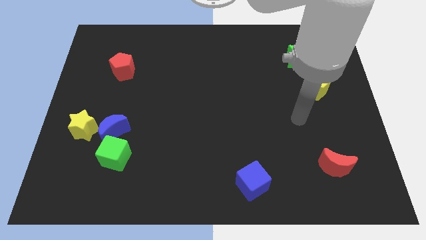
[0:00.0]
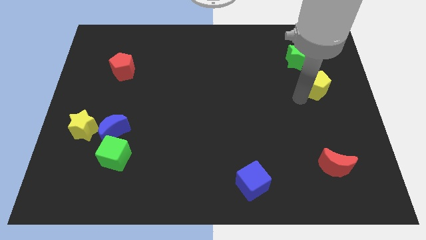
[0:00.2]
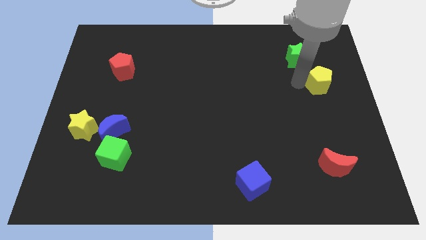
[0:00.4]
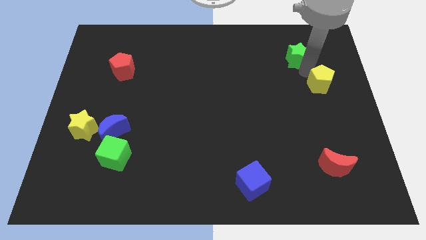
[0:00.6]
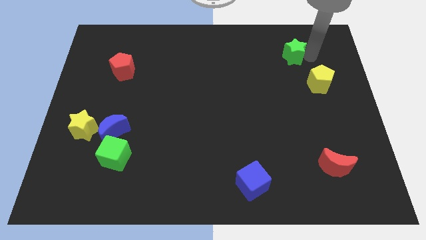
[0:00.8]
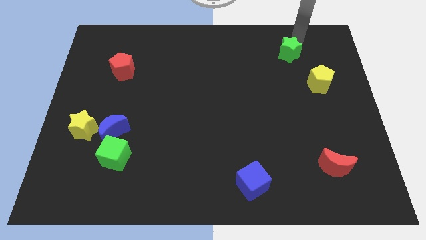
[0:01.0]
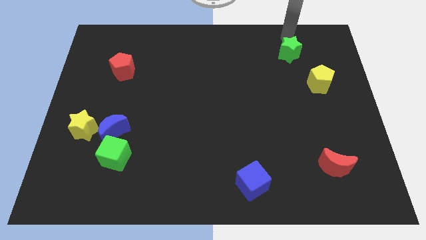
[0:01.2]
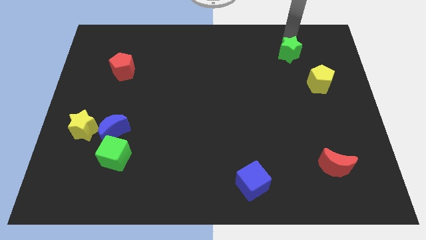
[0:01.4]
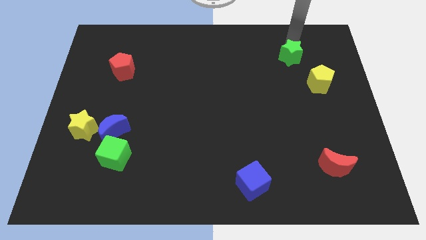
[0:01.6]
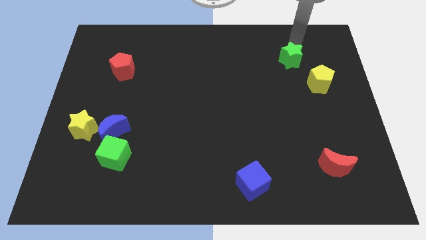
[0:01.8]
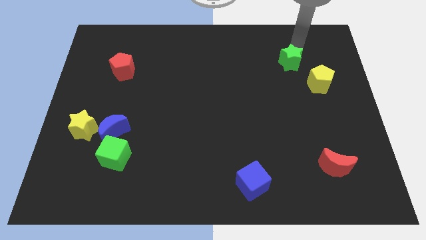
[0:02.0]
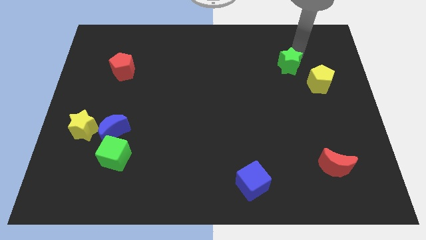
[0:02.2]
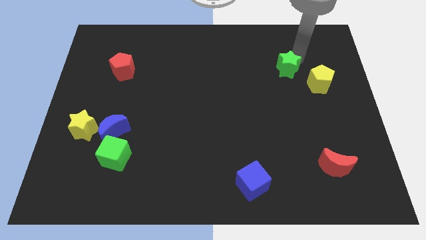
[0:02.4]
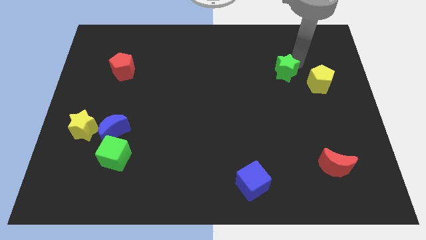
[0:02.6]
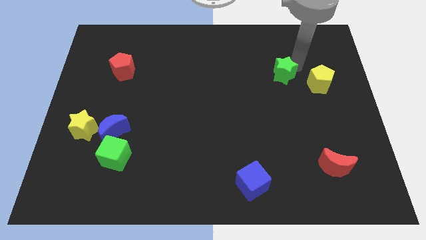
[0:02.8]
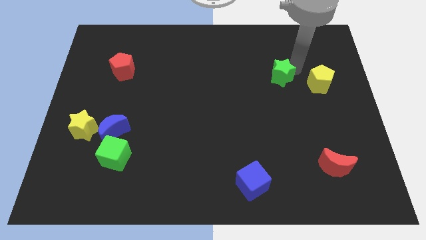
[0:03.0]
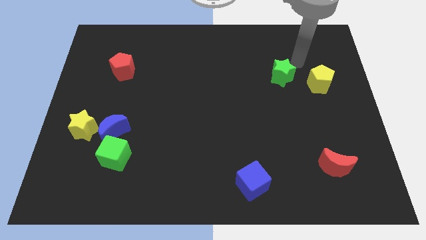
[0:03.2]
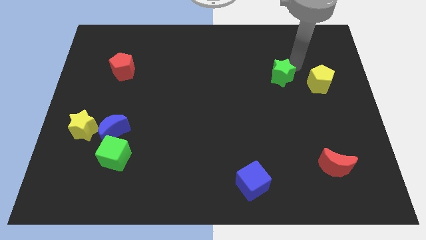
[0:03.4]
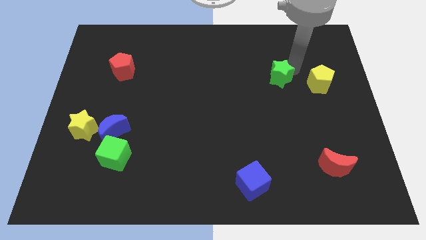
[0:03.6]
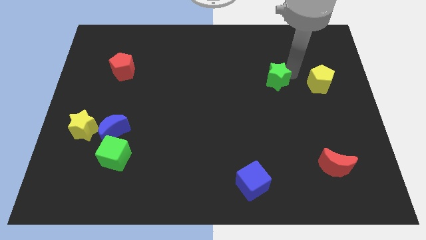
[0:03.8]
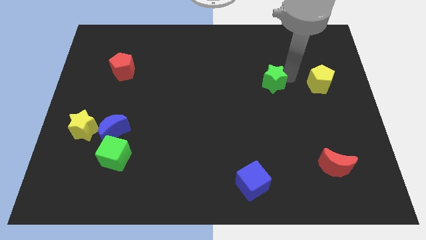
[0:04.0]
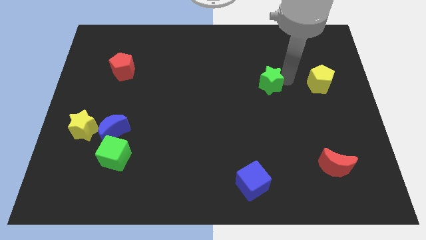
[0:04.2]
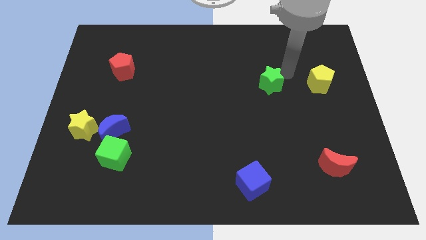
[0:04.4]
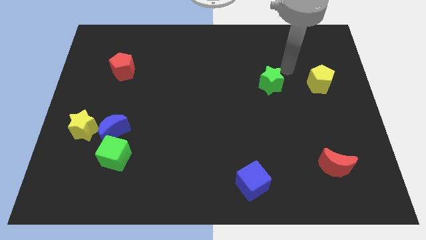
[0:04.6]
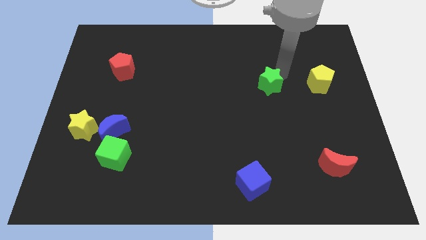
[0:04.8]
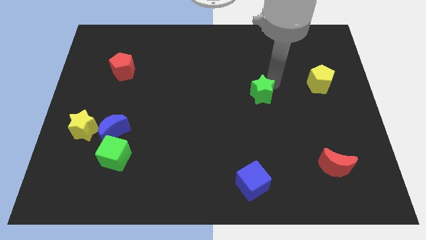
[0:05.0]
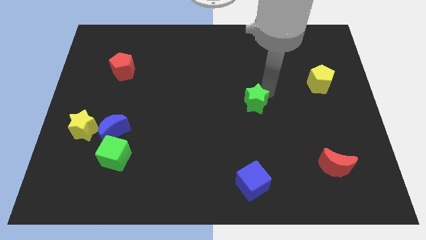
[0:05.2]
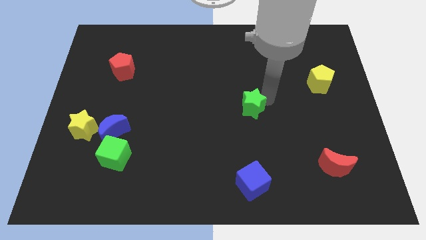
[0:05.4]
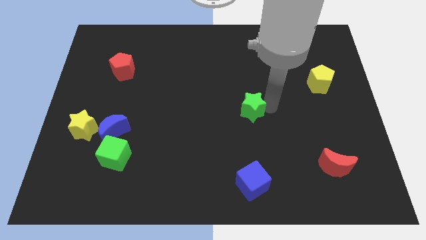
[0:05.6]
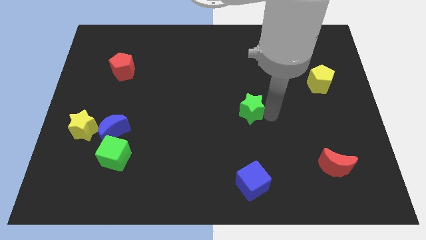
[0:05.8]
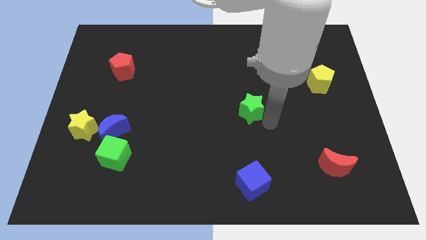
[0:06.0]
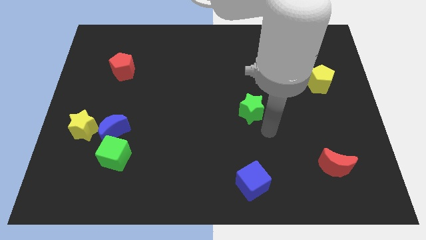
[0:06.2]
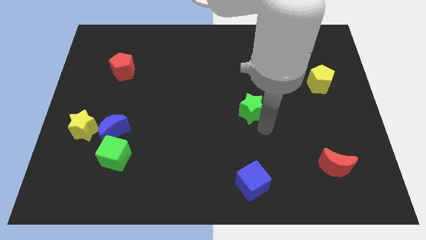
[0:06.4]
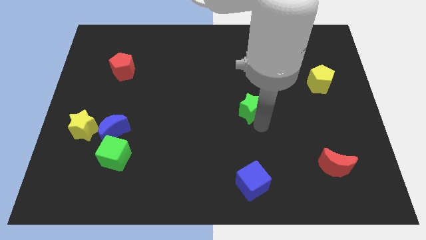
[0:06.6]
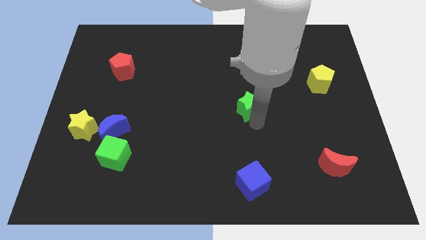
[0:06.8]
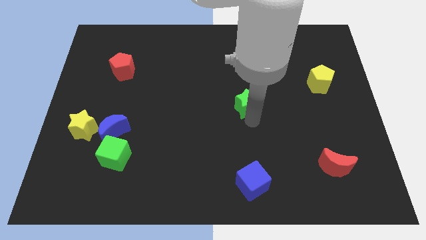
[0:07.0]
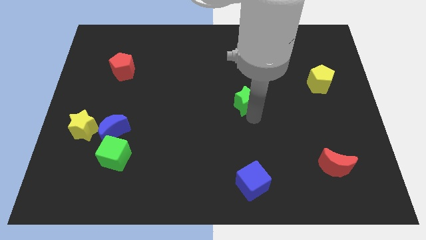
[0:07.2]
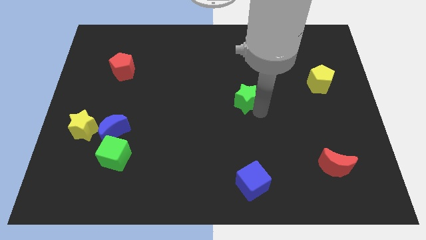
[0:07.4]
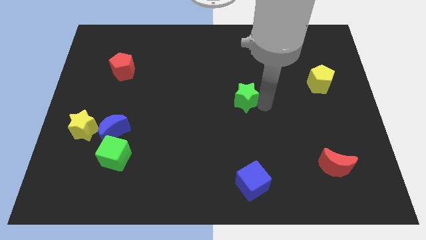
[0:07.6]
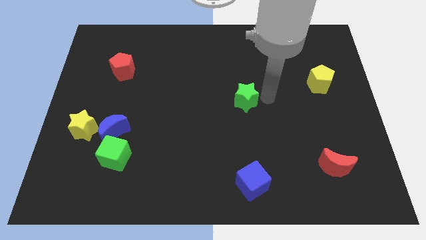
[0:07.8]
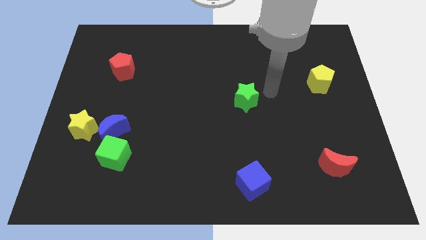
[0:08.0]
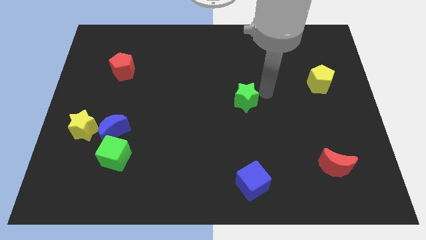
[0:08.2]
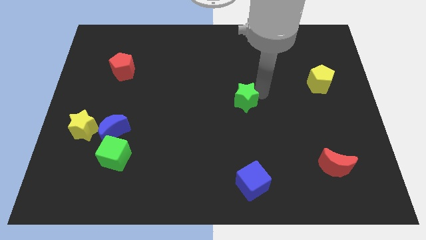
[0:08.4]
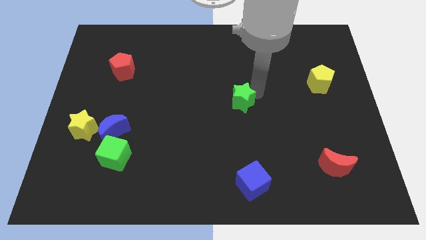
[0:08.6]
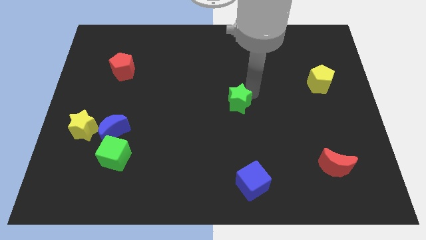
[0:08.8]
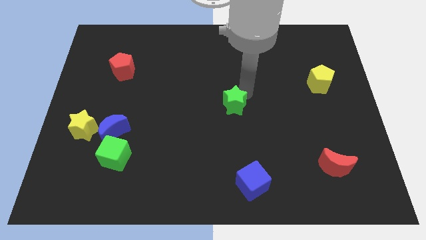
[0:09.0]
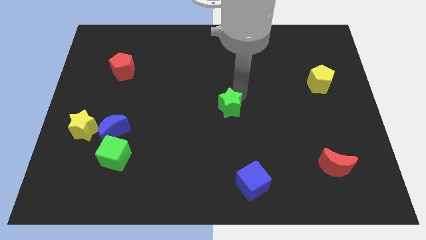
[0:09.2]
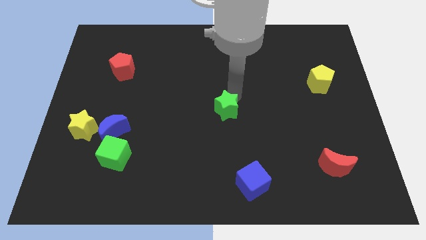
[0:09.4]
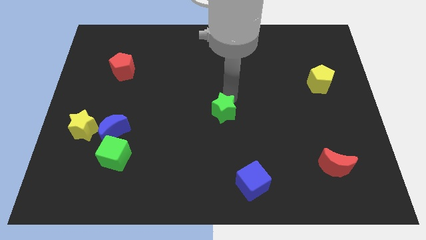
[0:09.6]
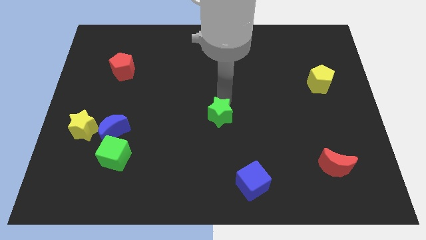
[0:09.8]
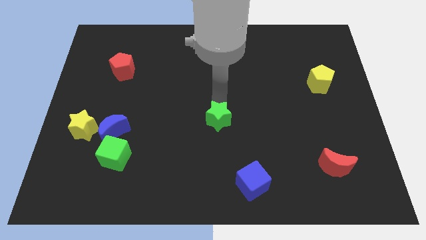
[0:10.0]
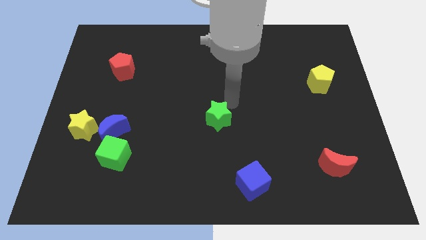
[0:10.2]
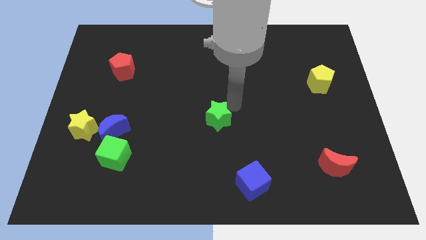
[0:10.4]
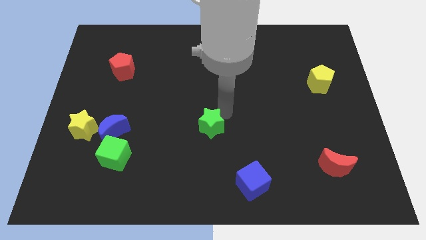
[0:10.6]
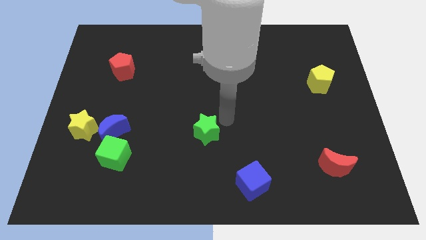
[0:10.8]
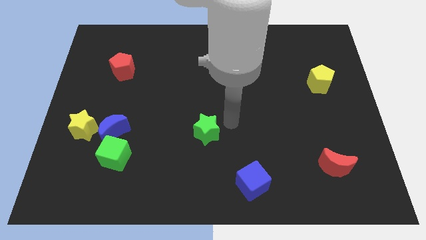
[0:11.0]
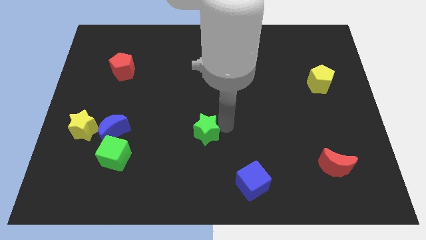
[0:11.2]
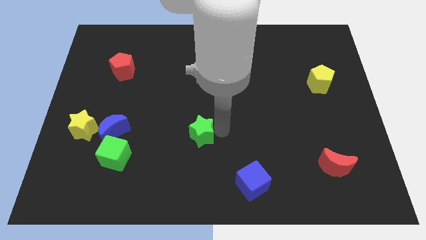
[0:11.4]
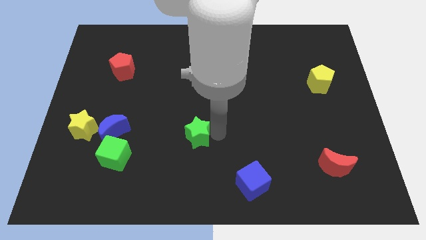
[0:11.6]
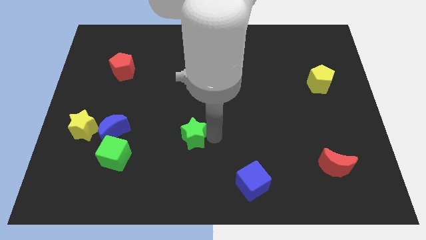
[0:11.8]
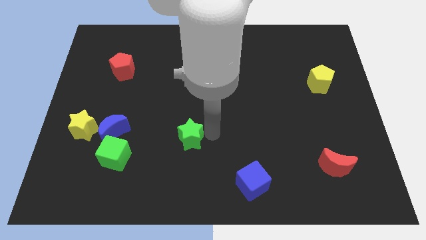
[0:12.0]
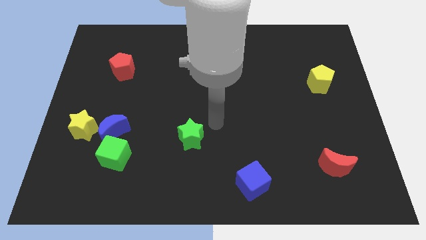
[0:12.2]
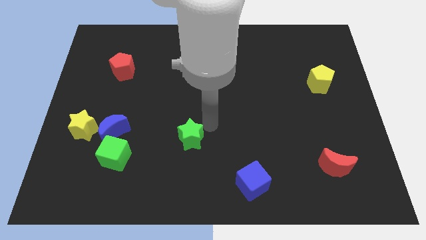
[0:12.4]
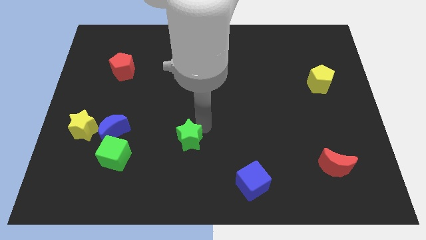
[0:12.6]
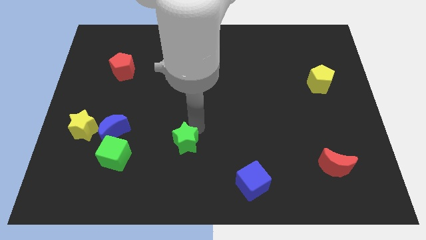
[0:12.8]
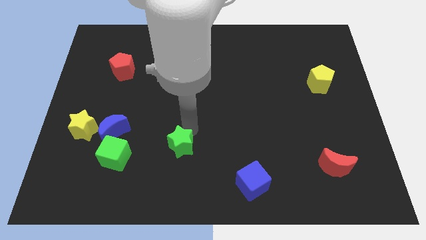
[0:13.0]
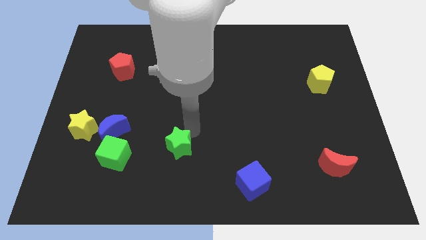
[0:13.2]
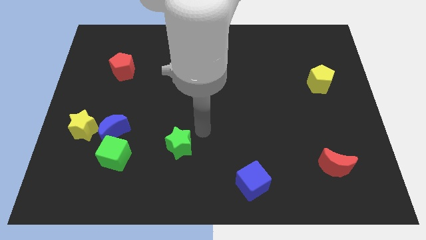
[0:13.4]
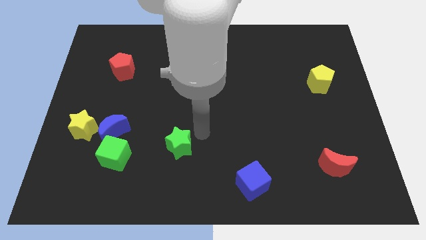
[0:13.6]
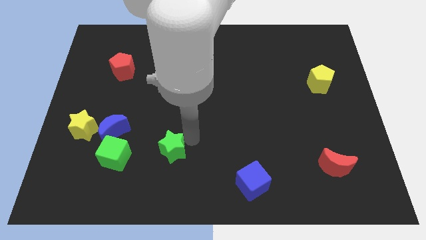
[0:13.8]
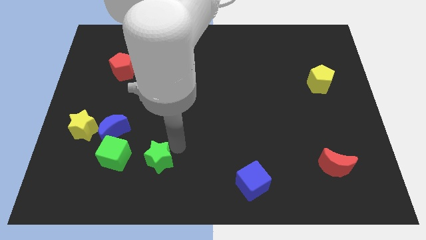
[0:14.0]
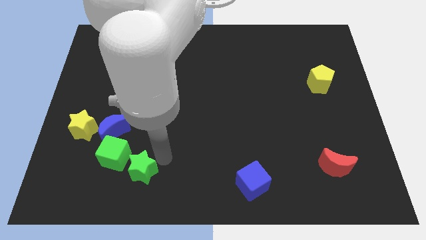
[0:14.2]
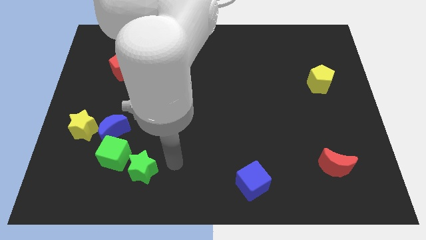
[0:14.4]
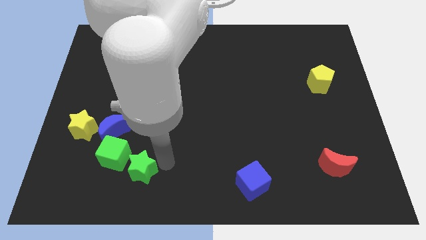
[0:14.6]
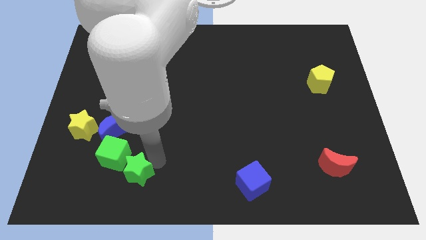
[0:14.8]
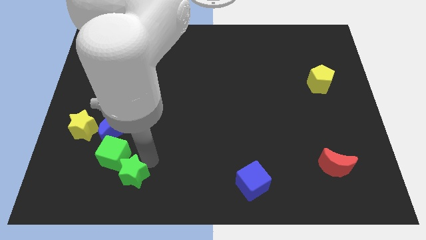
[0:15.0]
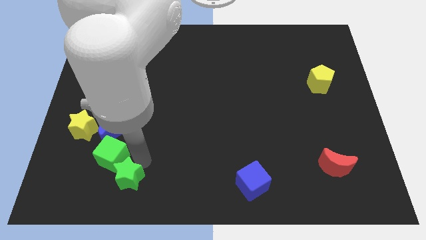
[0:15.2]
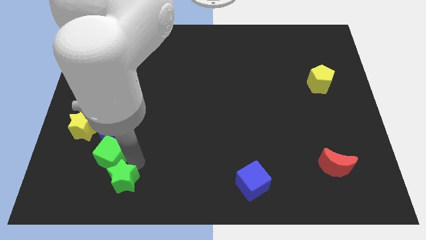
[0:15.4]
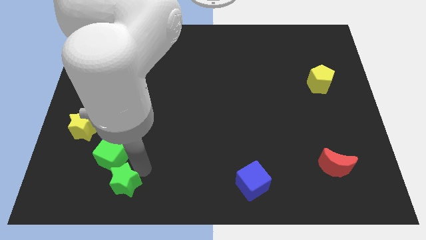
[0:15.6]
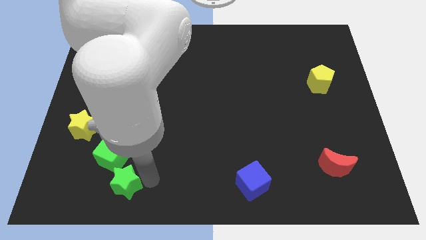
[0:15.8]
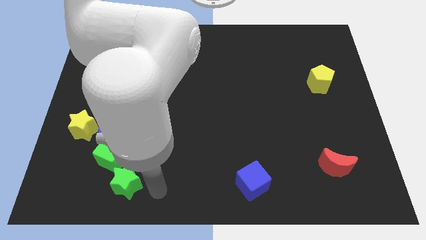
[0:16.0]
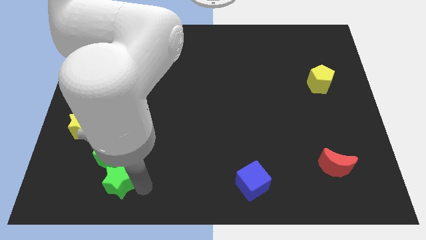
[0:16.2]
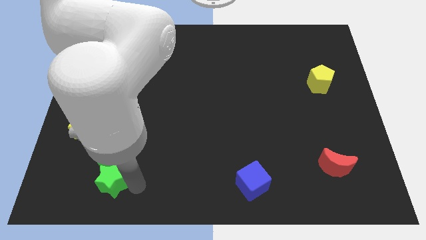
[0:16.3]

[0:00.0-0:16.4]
push the green star to the bottom left side of the green cube
